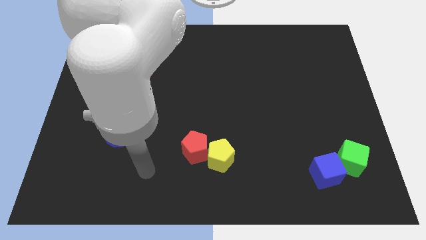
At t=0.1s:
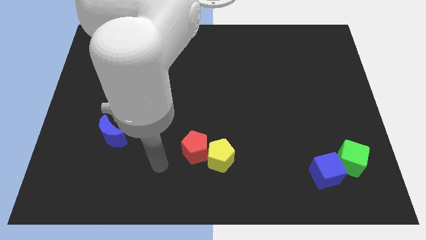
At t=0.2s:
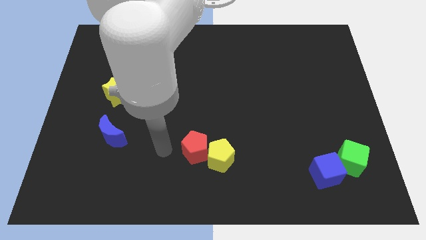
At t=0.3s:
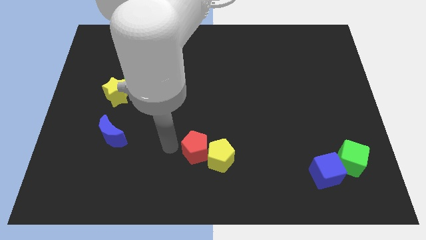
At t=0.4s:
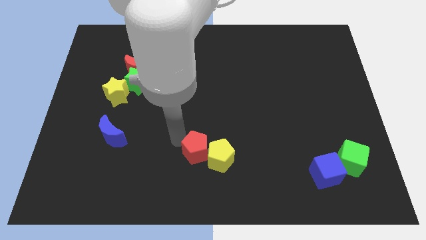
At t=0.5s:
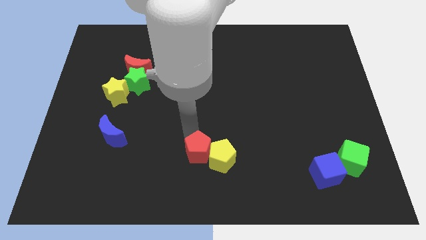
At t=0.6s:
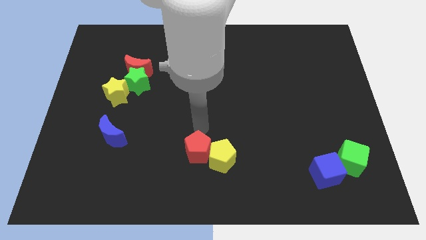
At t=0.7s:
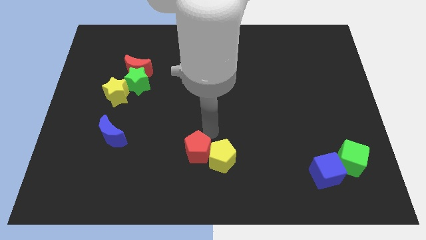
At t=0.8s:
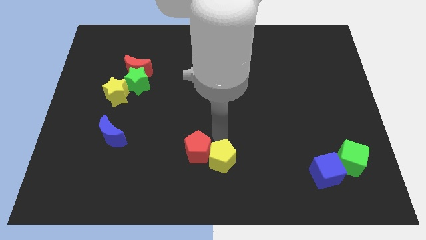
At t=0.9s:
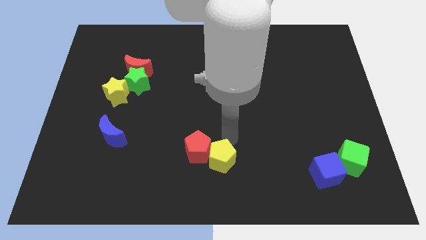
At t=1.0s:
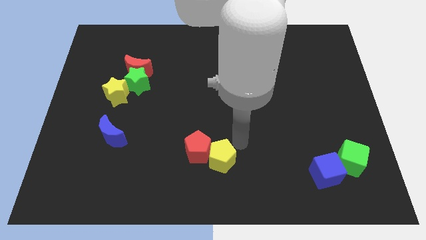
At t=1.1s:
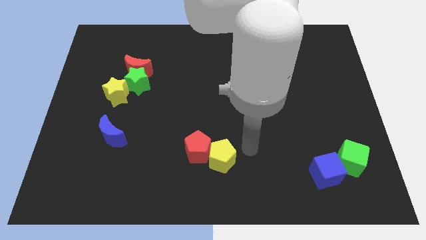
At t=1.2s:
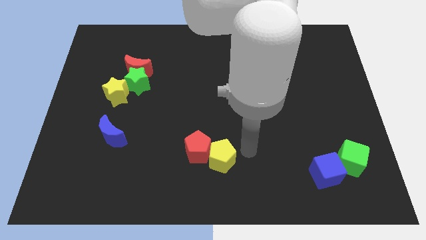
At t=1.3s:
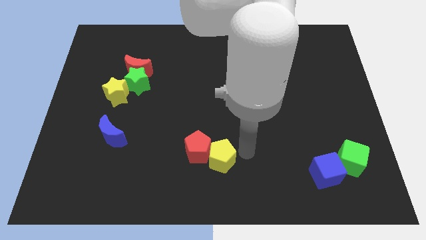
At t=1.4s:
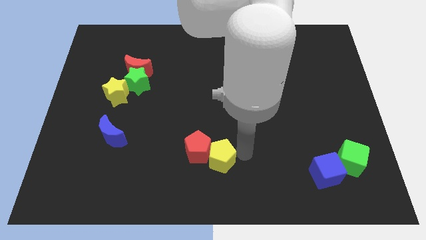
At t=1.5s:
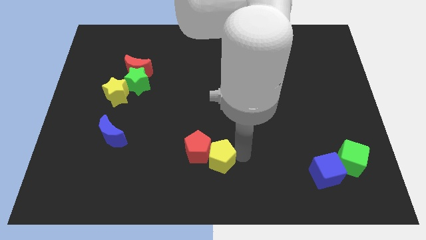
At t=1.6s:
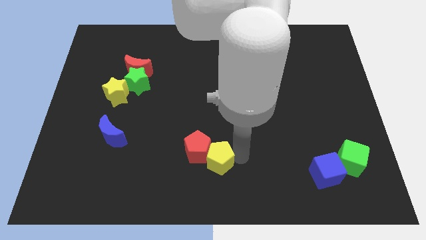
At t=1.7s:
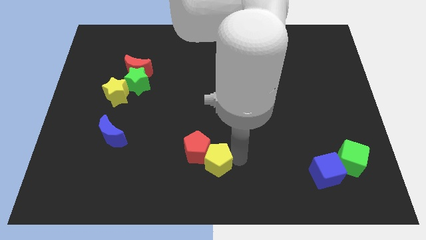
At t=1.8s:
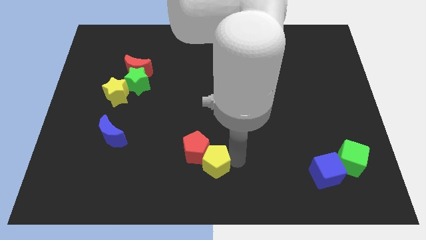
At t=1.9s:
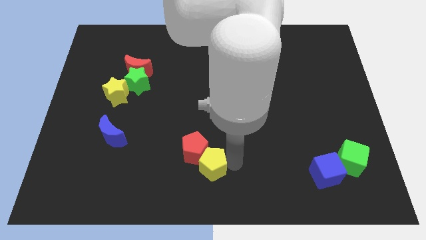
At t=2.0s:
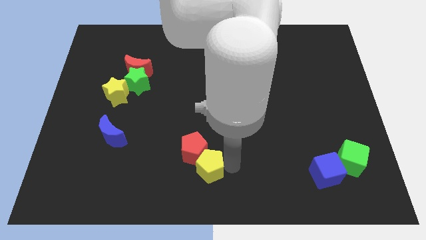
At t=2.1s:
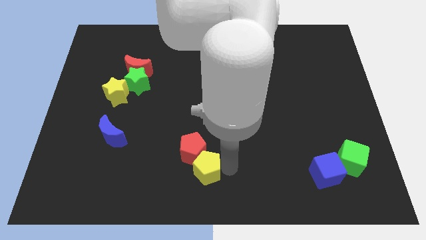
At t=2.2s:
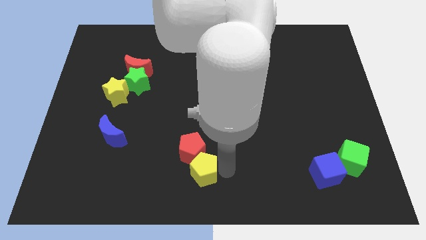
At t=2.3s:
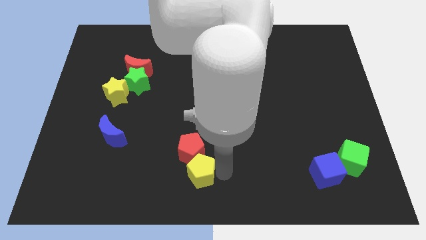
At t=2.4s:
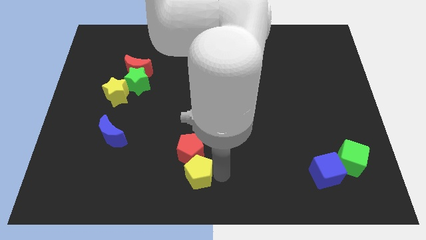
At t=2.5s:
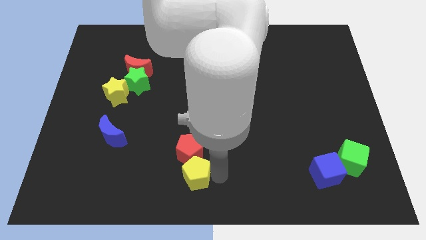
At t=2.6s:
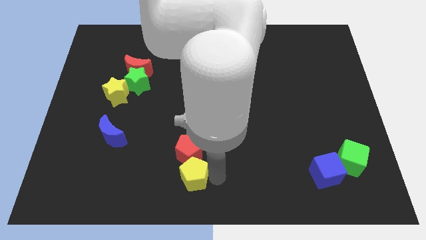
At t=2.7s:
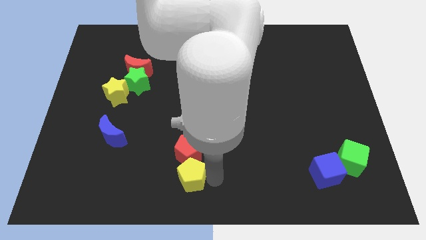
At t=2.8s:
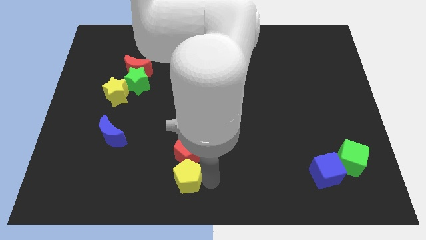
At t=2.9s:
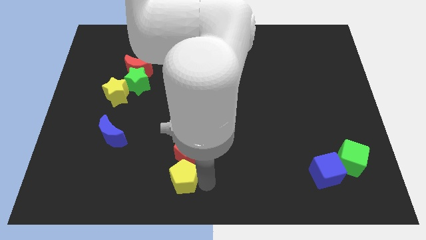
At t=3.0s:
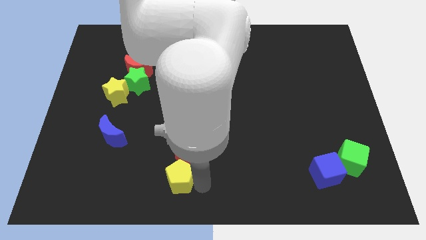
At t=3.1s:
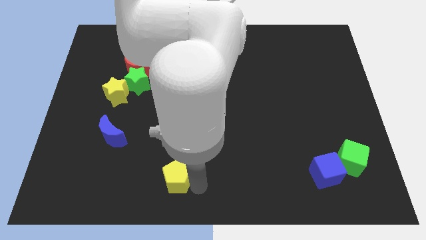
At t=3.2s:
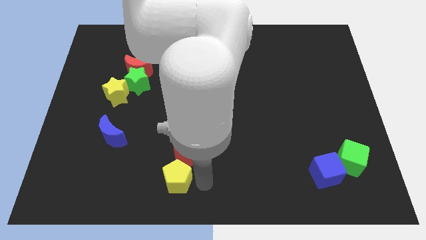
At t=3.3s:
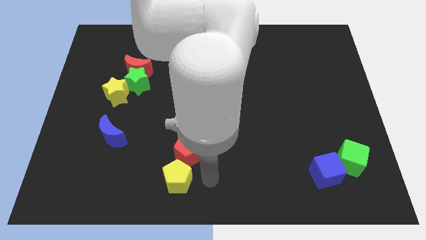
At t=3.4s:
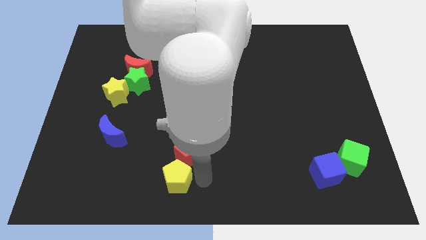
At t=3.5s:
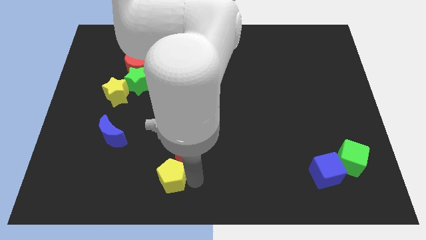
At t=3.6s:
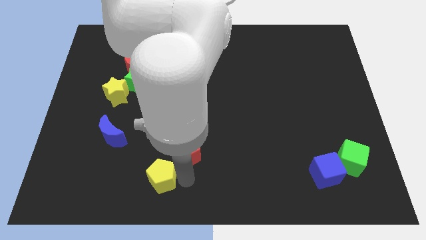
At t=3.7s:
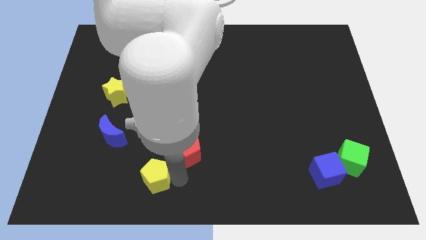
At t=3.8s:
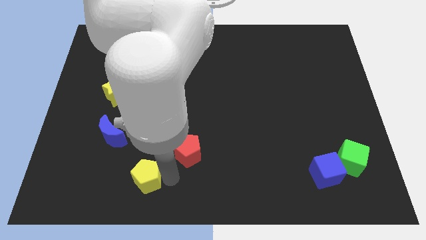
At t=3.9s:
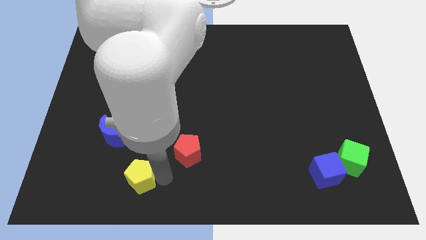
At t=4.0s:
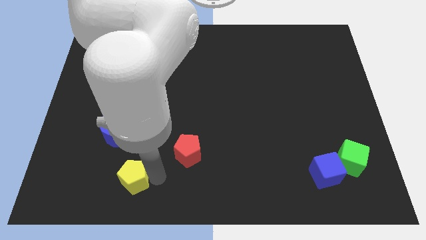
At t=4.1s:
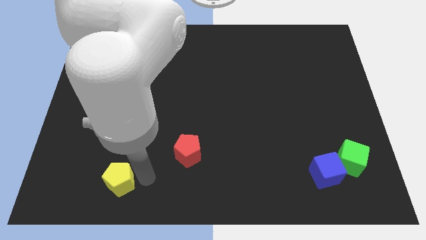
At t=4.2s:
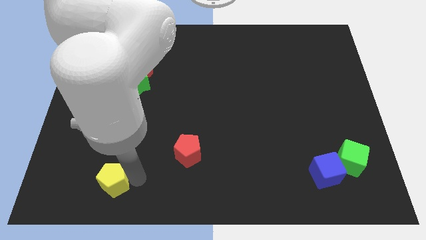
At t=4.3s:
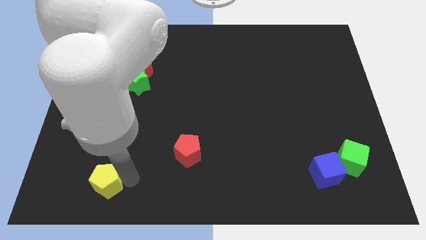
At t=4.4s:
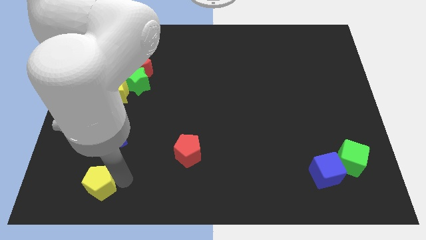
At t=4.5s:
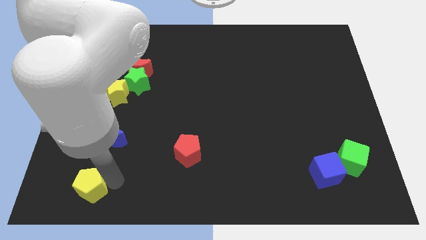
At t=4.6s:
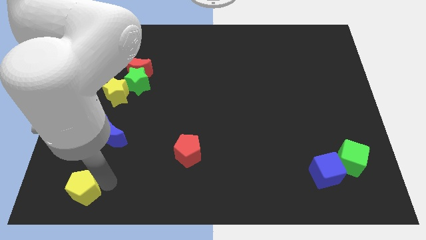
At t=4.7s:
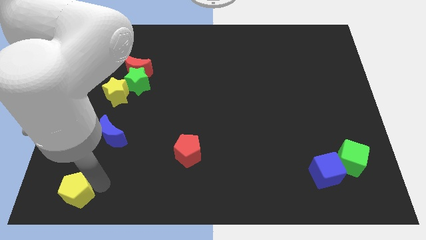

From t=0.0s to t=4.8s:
slide the yellow pentagon to the lower left corner

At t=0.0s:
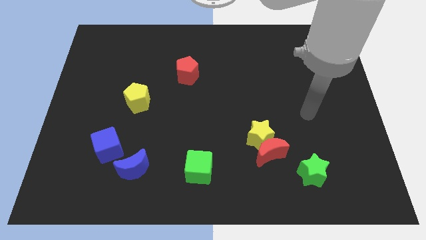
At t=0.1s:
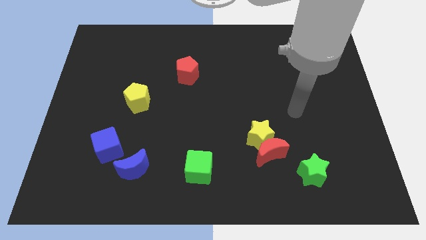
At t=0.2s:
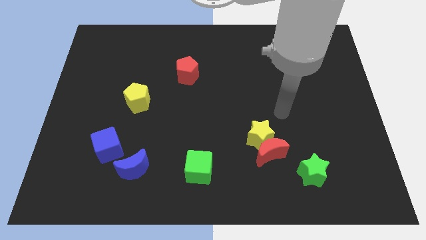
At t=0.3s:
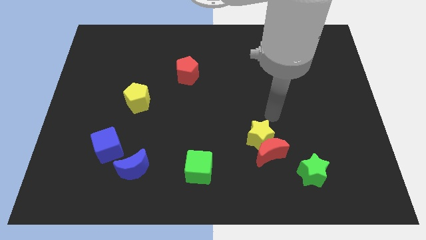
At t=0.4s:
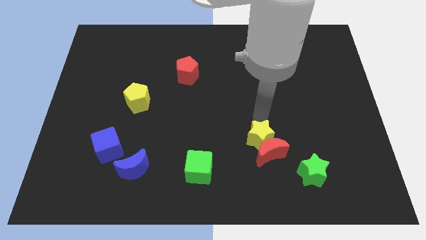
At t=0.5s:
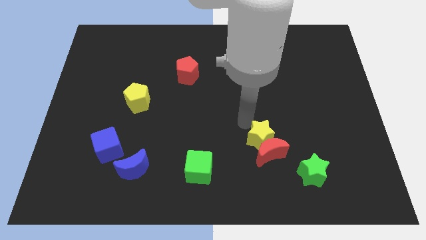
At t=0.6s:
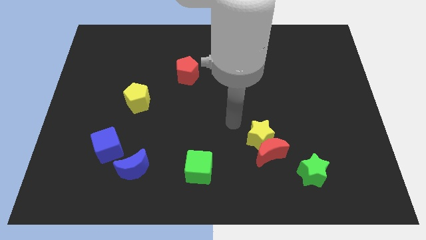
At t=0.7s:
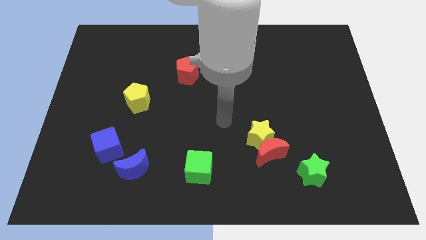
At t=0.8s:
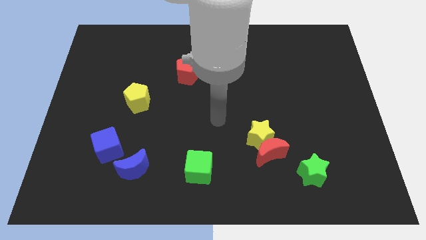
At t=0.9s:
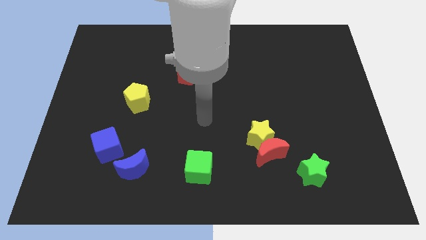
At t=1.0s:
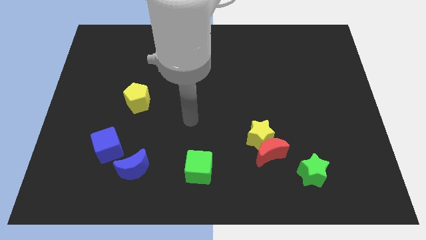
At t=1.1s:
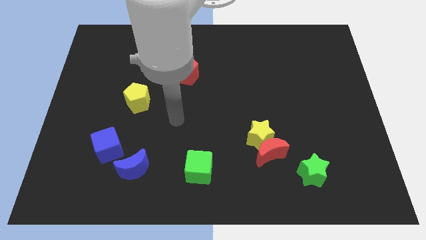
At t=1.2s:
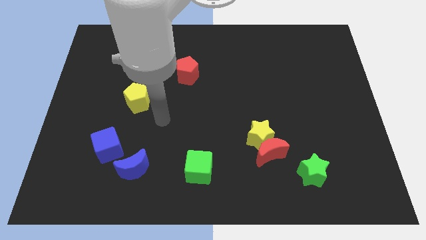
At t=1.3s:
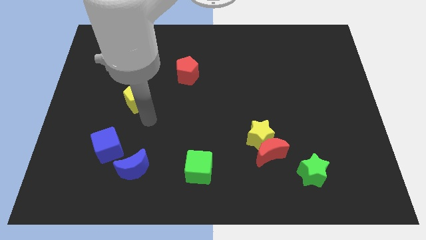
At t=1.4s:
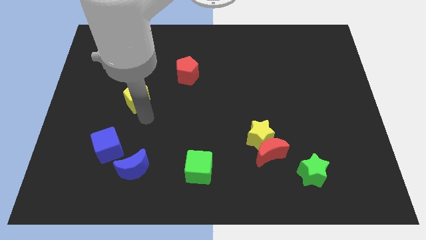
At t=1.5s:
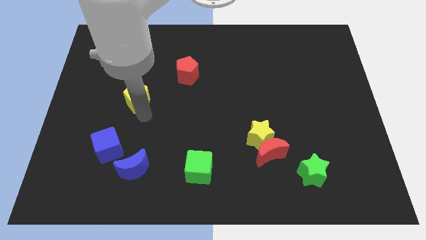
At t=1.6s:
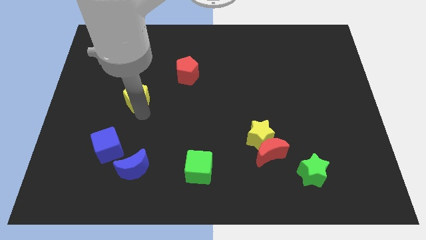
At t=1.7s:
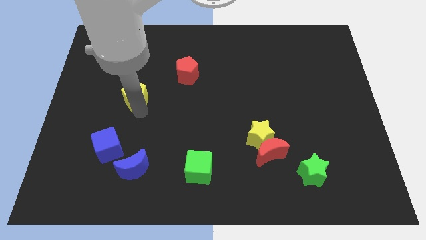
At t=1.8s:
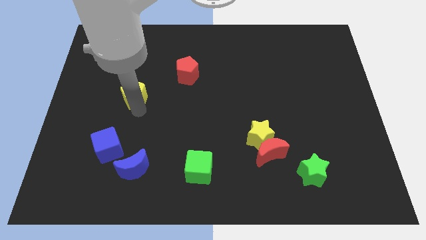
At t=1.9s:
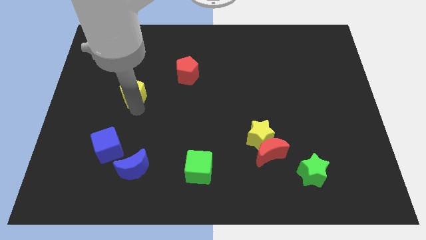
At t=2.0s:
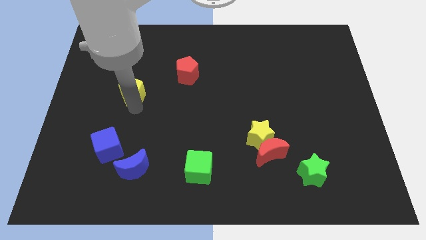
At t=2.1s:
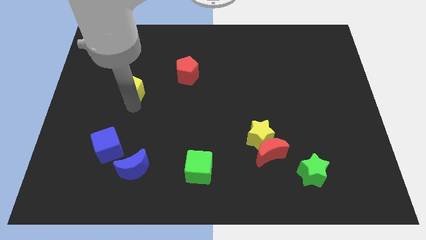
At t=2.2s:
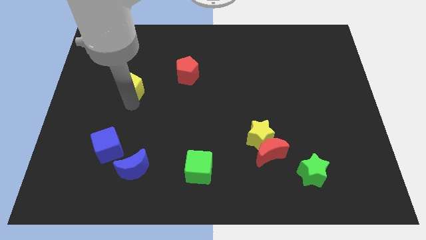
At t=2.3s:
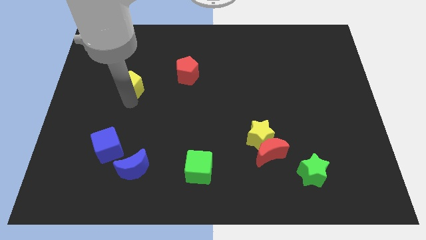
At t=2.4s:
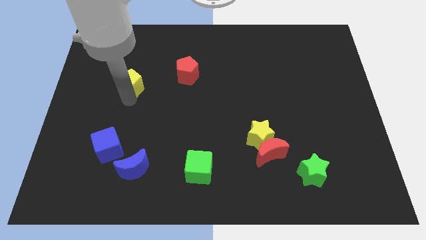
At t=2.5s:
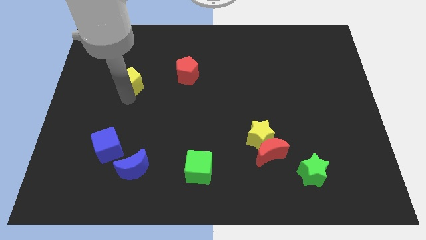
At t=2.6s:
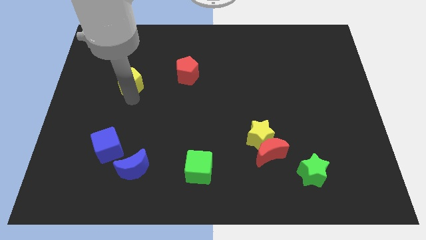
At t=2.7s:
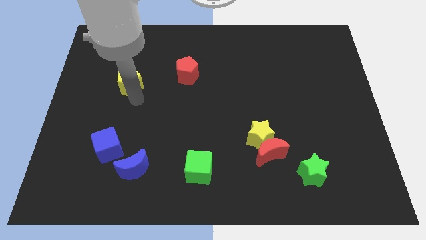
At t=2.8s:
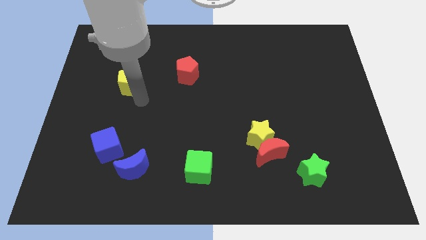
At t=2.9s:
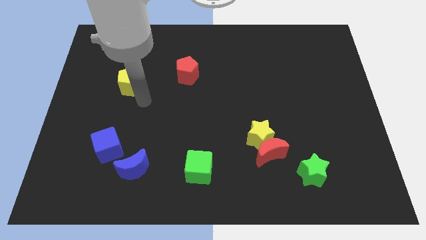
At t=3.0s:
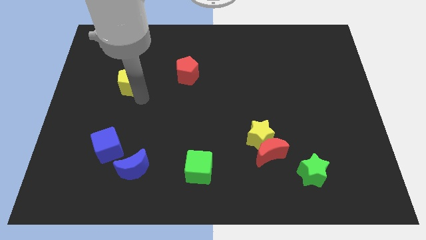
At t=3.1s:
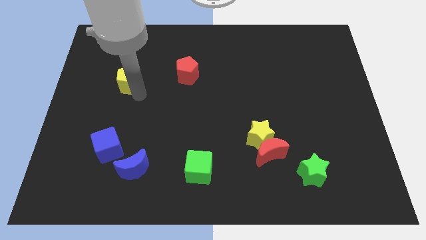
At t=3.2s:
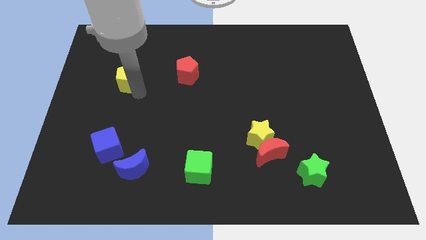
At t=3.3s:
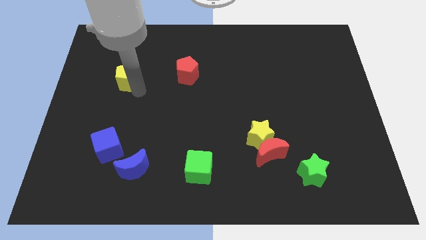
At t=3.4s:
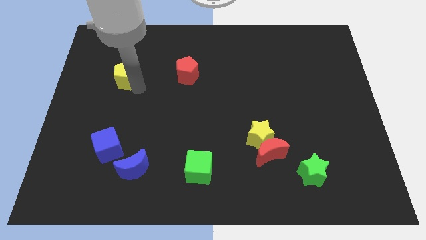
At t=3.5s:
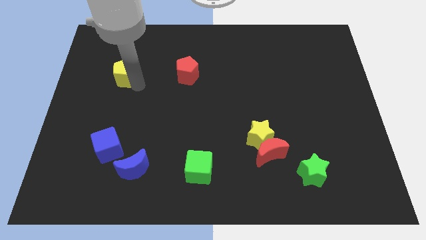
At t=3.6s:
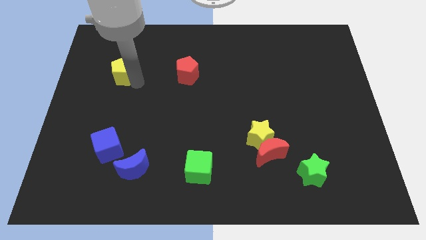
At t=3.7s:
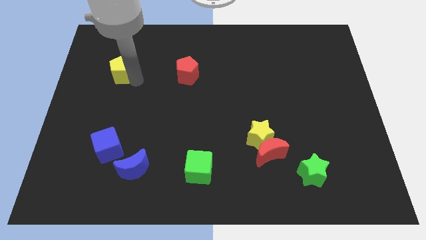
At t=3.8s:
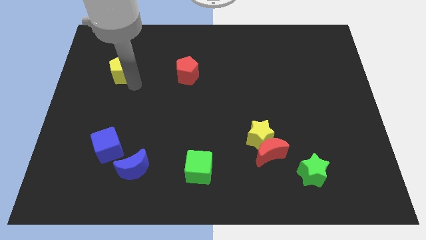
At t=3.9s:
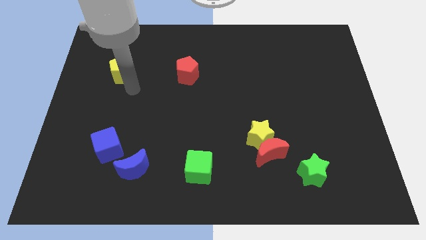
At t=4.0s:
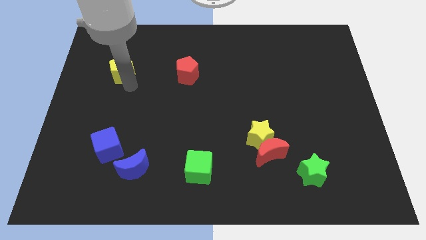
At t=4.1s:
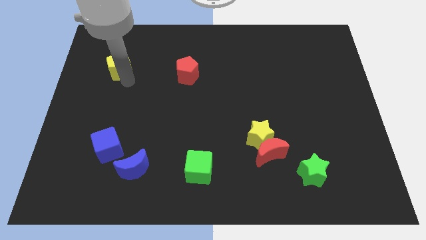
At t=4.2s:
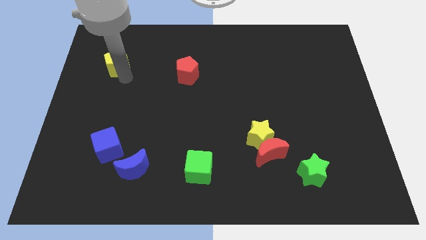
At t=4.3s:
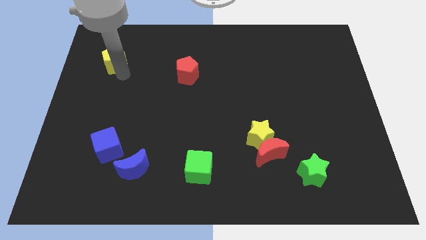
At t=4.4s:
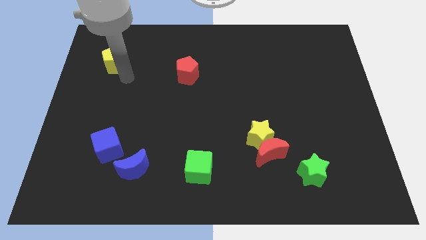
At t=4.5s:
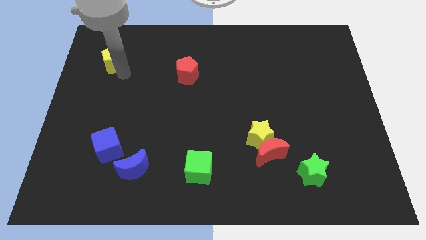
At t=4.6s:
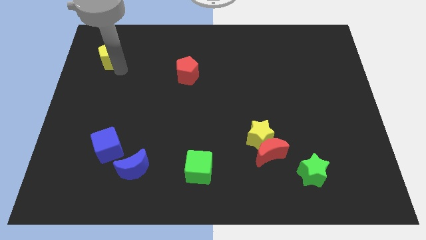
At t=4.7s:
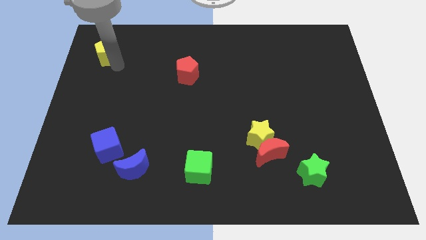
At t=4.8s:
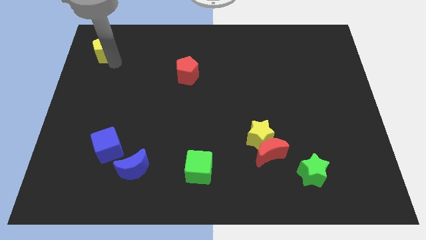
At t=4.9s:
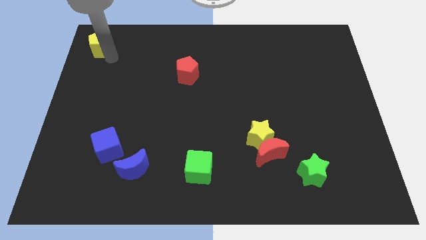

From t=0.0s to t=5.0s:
move the yellow pentagon to the top left
